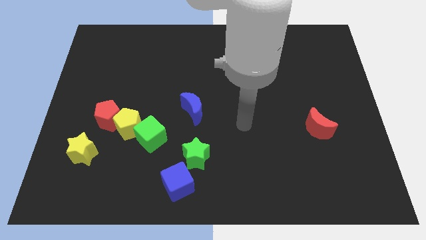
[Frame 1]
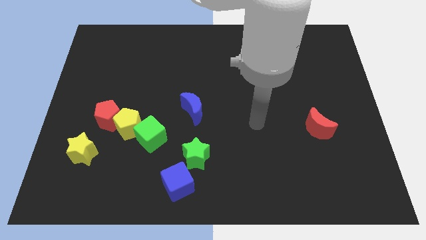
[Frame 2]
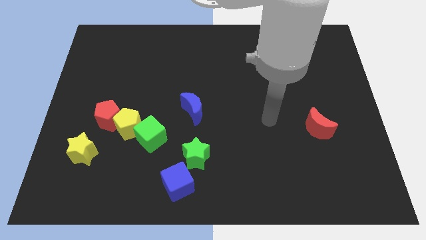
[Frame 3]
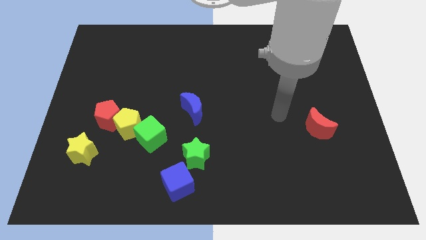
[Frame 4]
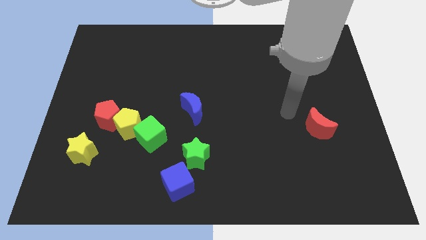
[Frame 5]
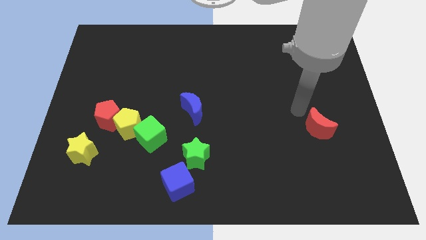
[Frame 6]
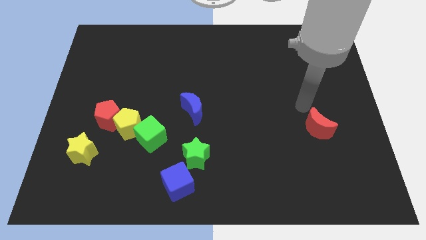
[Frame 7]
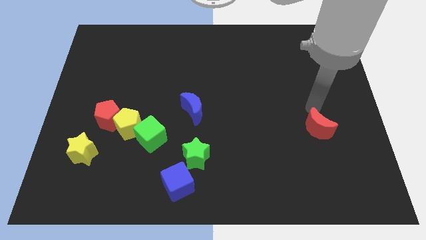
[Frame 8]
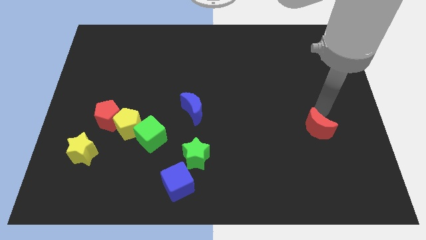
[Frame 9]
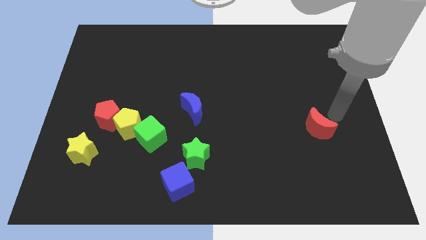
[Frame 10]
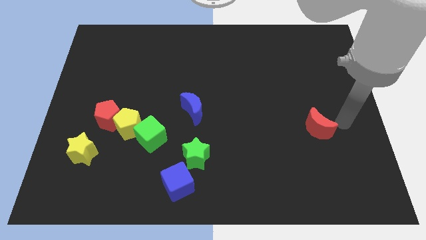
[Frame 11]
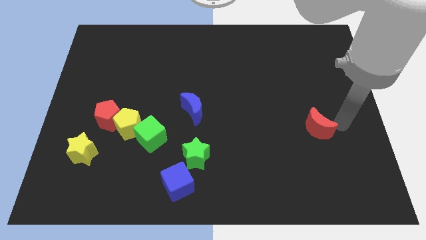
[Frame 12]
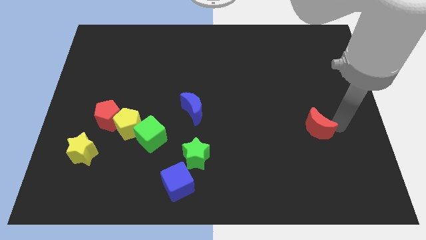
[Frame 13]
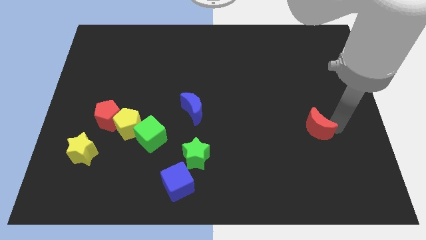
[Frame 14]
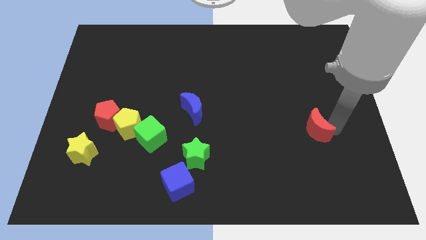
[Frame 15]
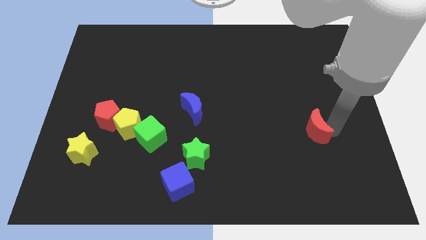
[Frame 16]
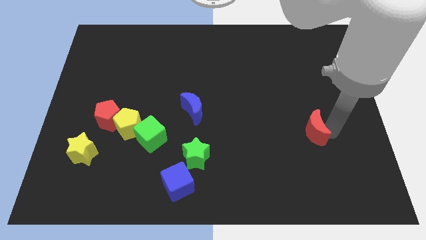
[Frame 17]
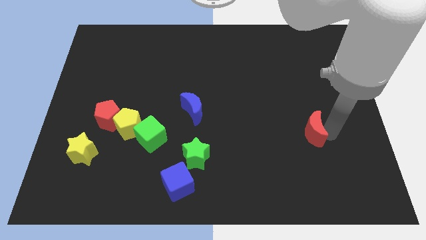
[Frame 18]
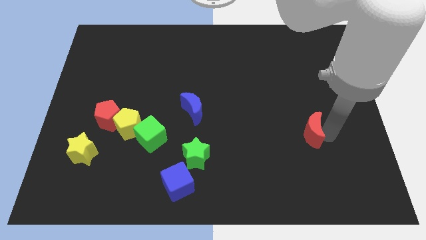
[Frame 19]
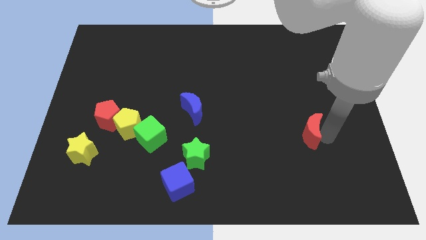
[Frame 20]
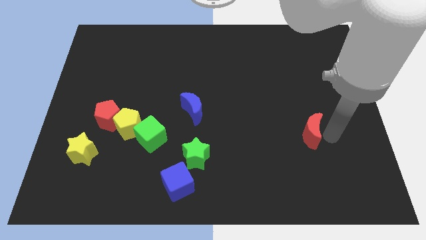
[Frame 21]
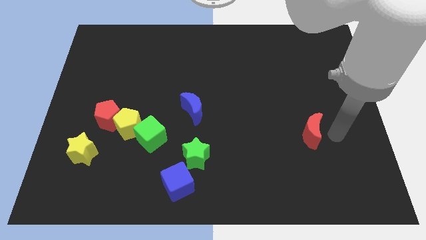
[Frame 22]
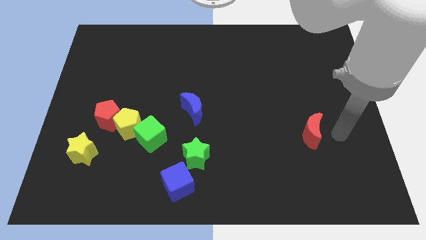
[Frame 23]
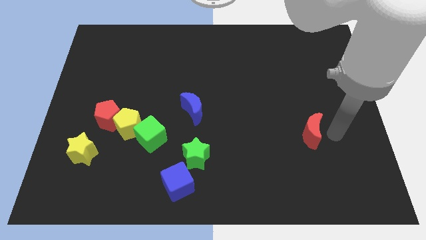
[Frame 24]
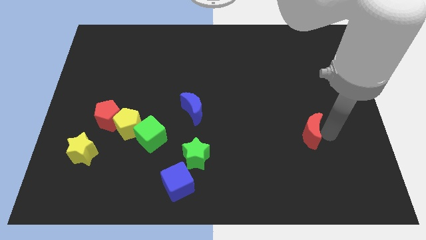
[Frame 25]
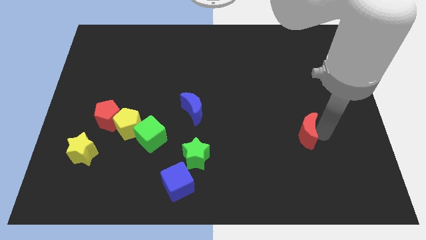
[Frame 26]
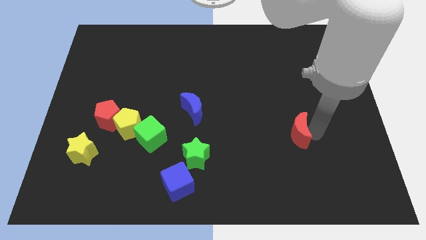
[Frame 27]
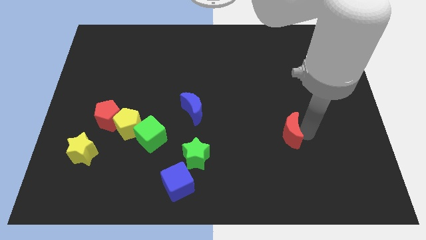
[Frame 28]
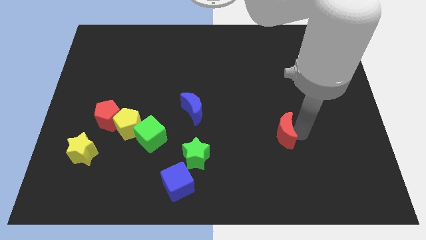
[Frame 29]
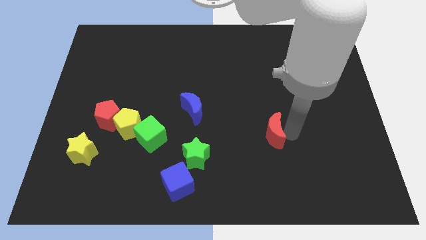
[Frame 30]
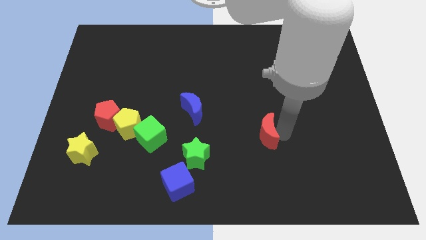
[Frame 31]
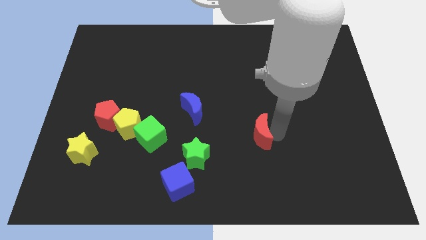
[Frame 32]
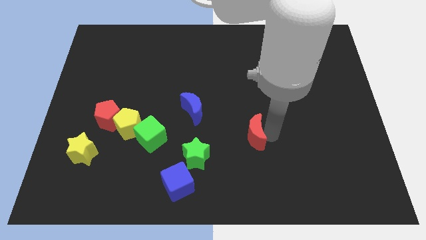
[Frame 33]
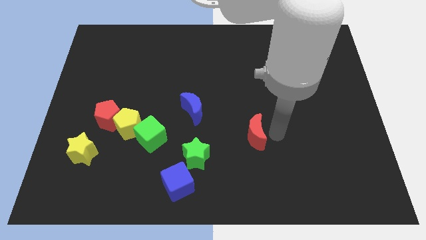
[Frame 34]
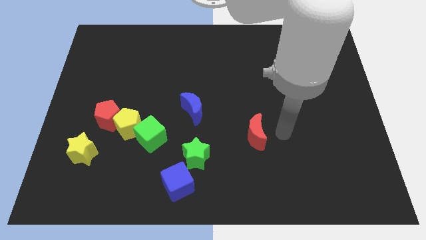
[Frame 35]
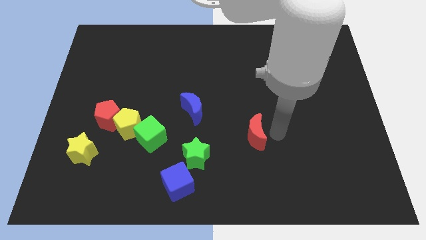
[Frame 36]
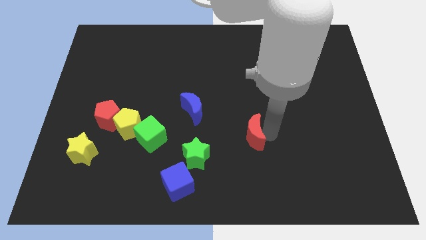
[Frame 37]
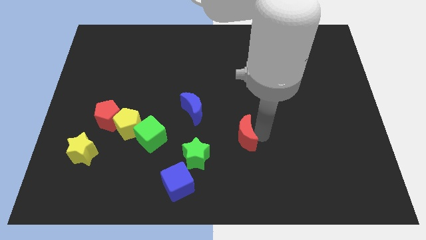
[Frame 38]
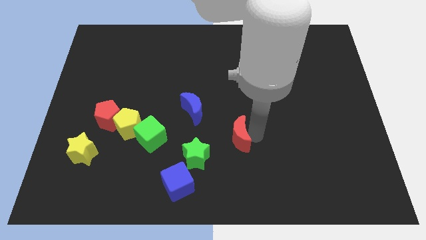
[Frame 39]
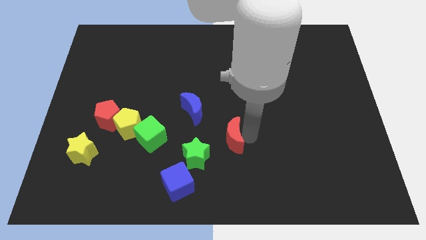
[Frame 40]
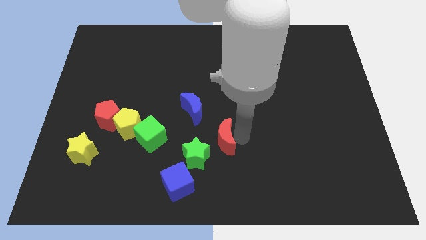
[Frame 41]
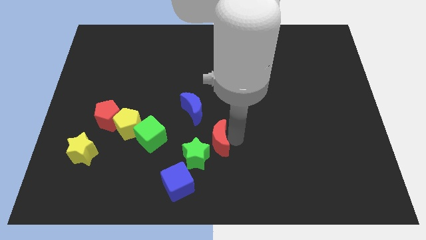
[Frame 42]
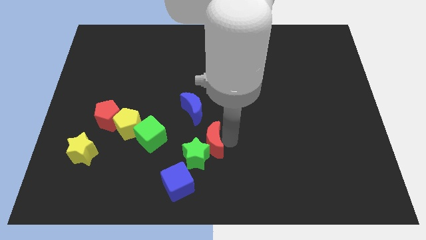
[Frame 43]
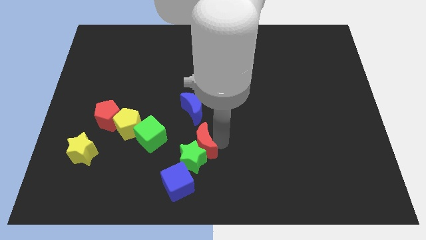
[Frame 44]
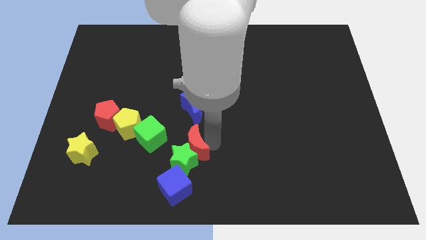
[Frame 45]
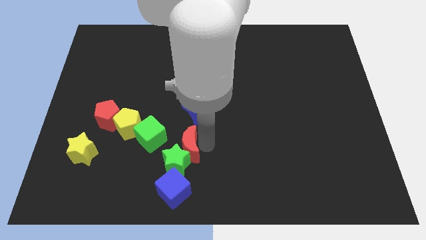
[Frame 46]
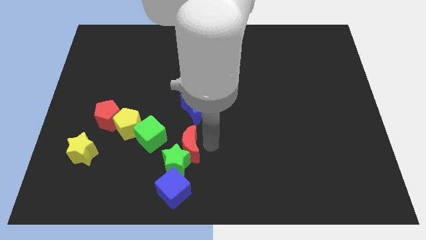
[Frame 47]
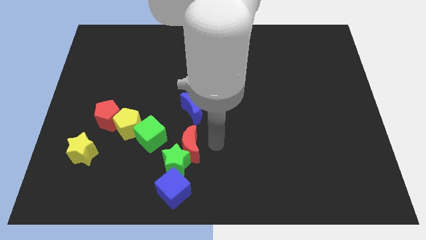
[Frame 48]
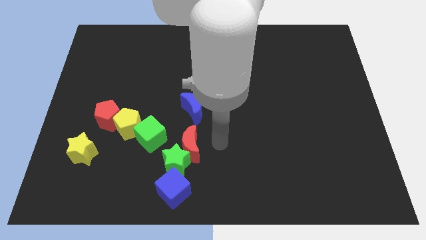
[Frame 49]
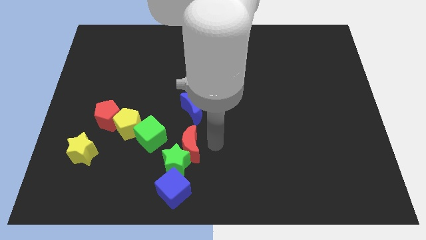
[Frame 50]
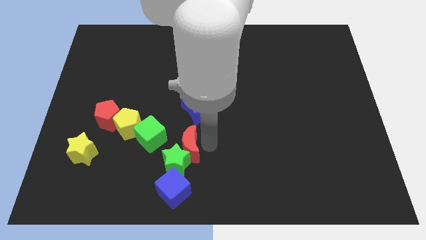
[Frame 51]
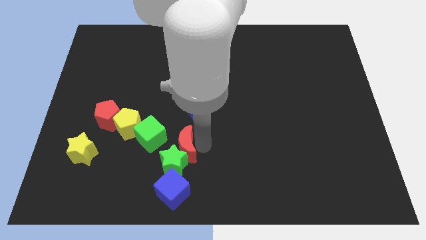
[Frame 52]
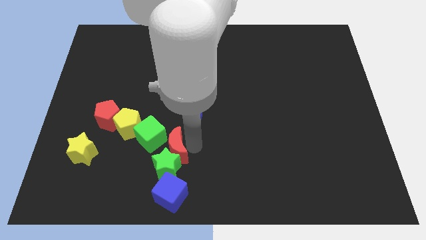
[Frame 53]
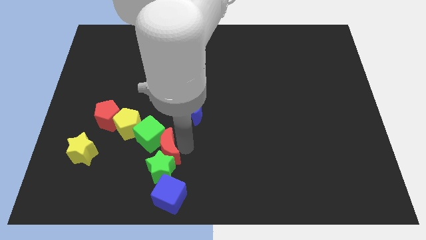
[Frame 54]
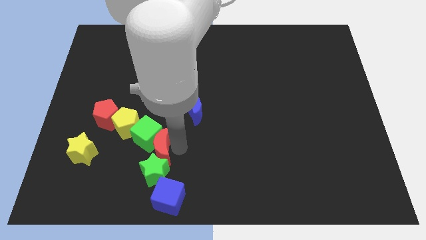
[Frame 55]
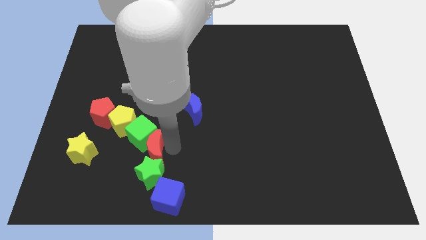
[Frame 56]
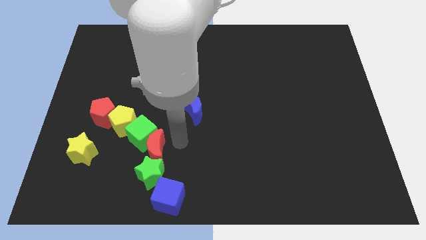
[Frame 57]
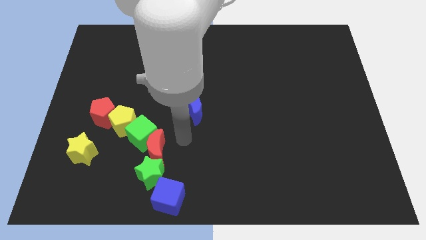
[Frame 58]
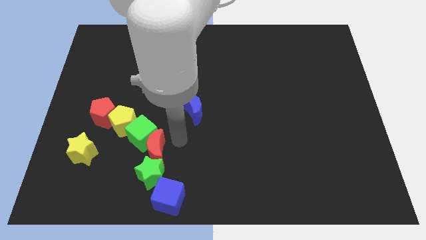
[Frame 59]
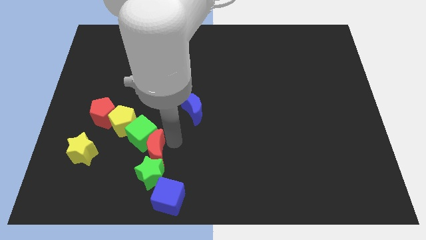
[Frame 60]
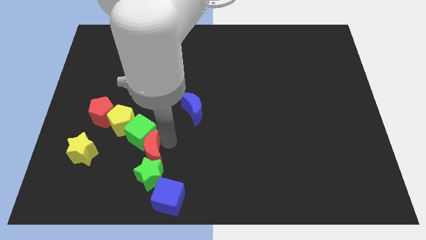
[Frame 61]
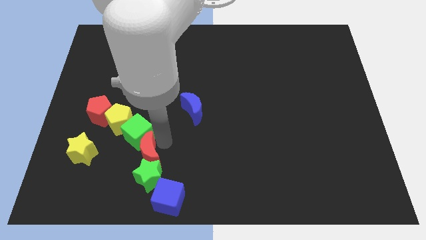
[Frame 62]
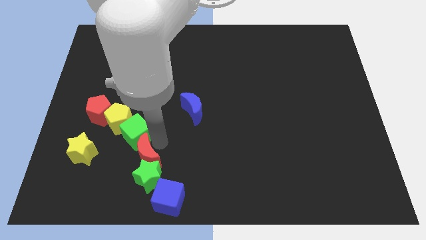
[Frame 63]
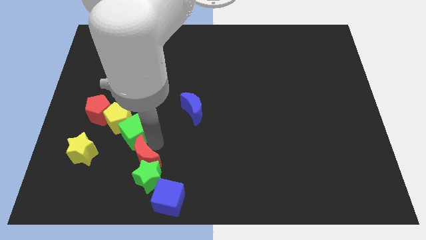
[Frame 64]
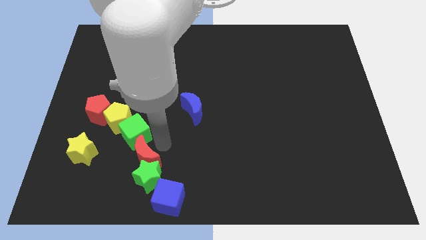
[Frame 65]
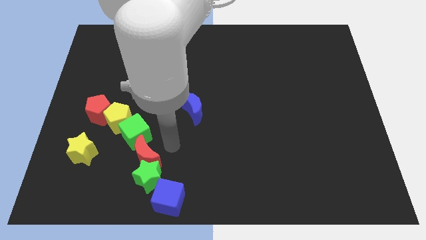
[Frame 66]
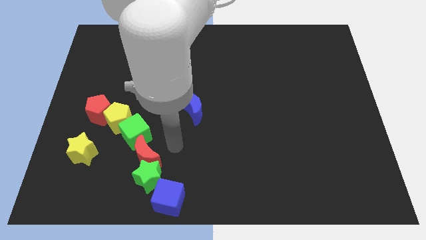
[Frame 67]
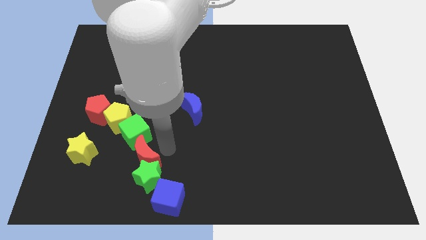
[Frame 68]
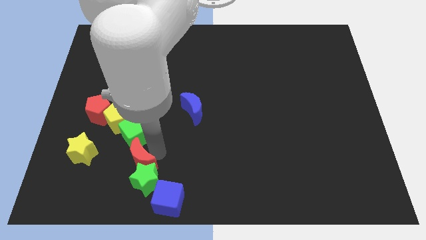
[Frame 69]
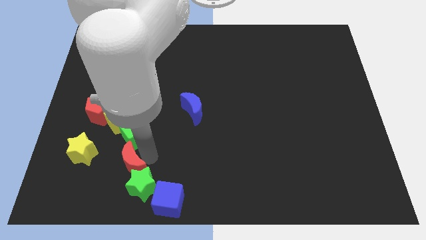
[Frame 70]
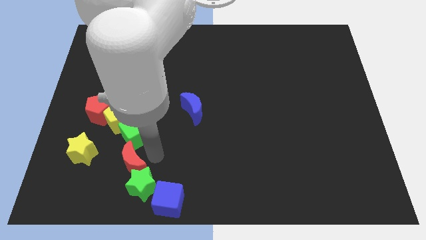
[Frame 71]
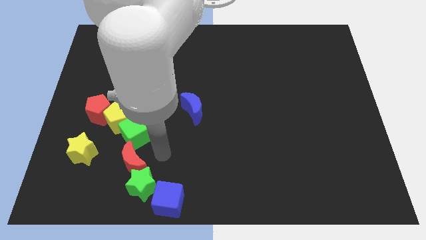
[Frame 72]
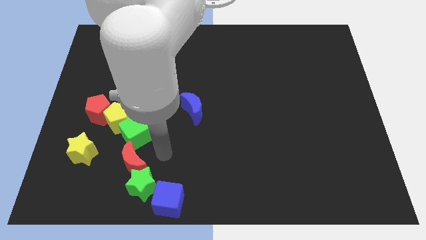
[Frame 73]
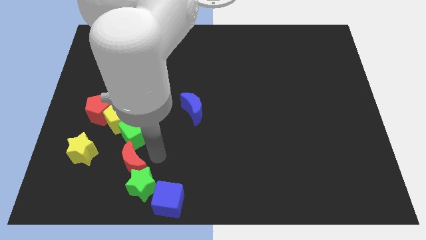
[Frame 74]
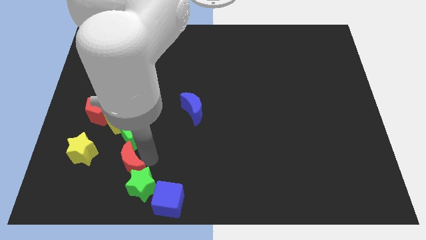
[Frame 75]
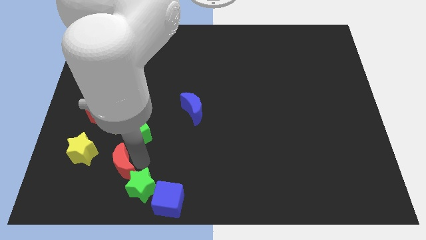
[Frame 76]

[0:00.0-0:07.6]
move the red moon diagonally down and to the right of the yellow star
